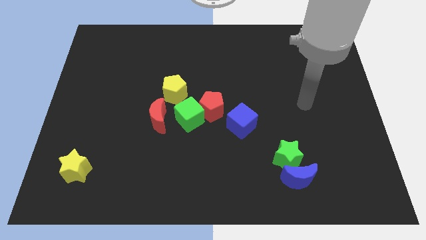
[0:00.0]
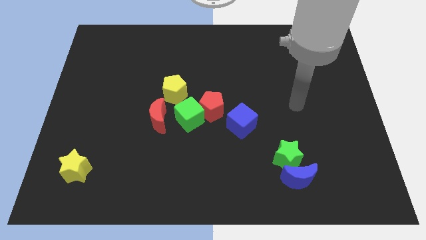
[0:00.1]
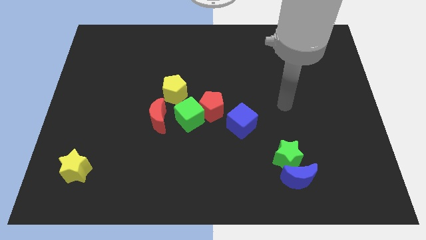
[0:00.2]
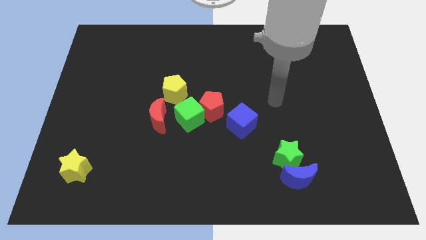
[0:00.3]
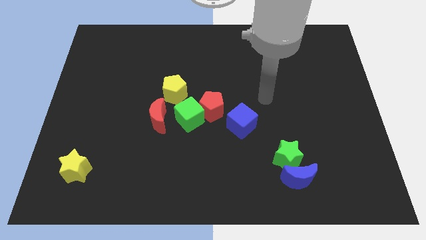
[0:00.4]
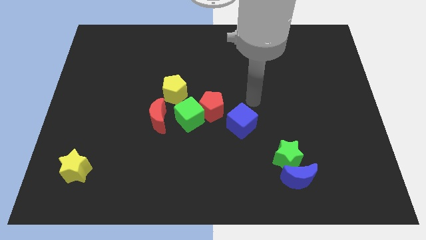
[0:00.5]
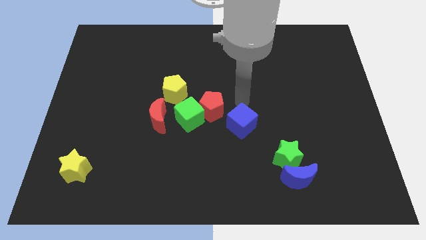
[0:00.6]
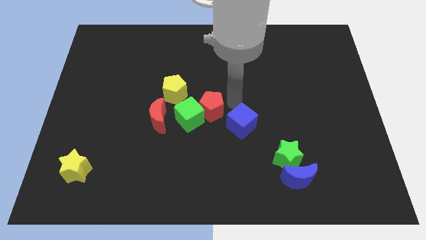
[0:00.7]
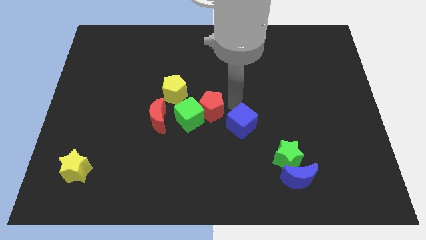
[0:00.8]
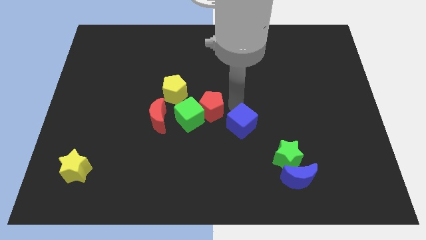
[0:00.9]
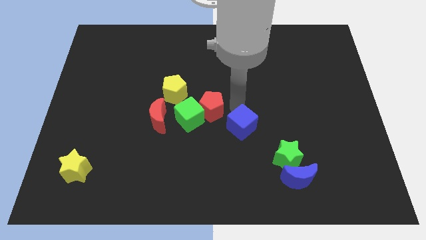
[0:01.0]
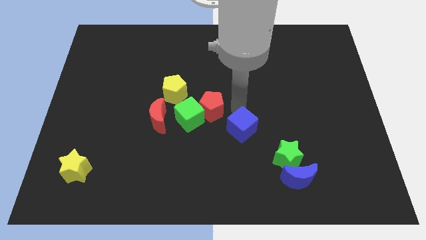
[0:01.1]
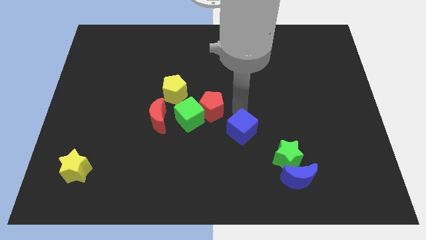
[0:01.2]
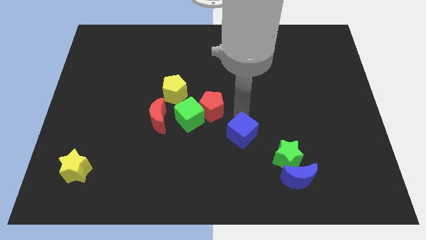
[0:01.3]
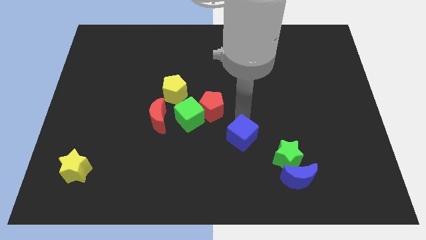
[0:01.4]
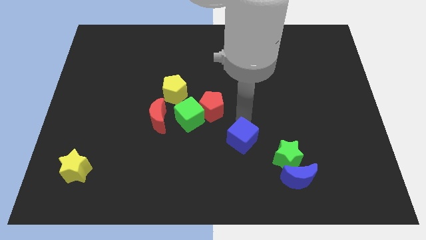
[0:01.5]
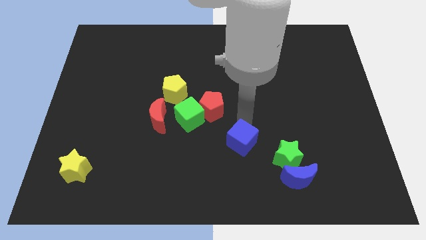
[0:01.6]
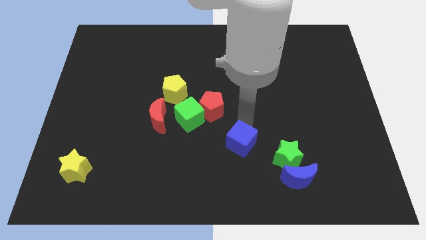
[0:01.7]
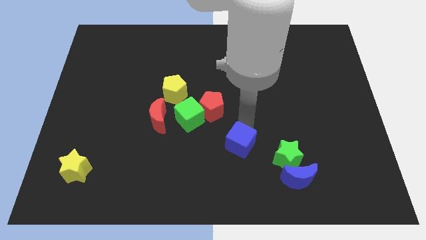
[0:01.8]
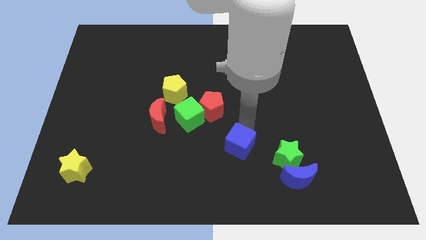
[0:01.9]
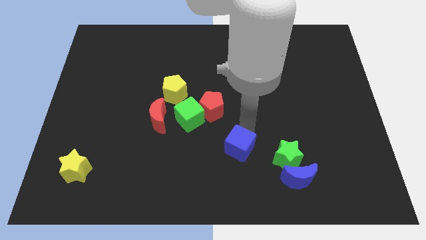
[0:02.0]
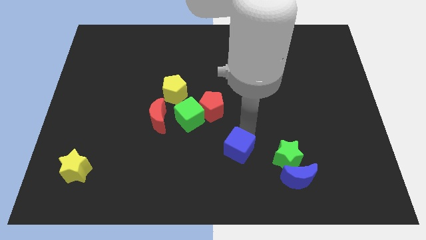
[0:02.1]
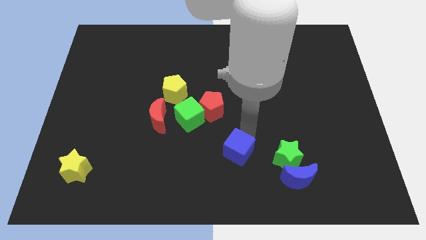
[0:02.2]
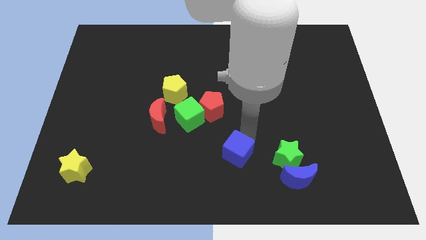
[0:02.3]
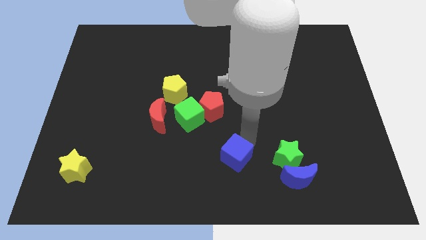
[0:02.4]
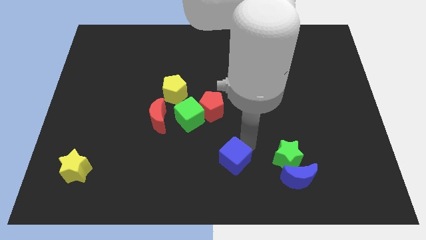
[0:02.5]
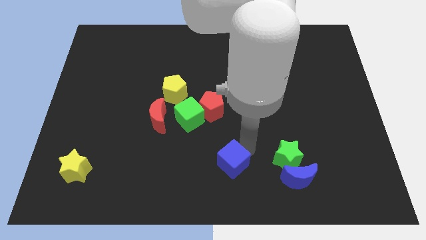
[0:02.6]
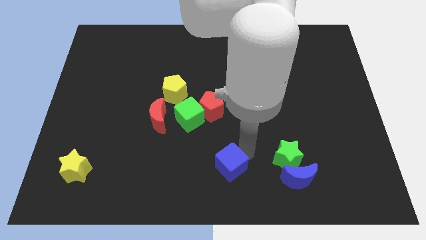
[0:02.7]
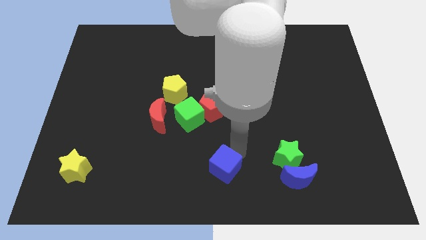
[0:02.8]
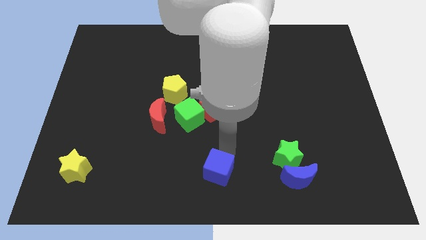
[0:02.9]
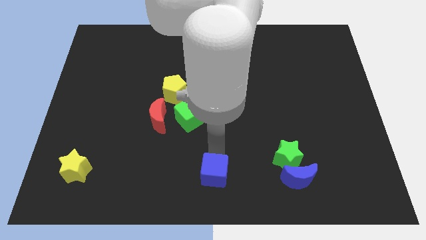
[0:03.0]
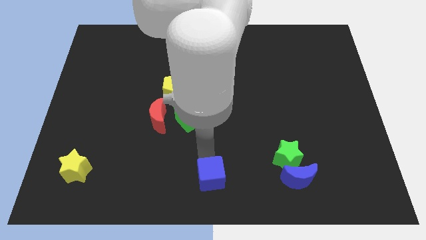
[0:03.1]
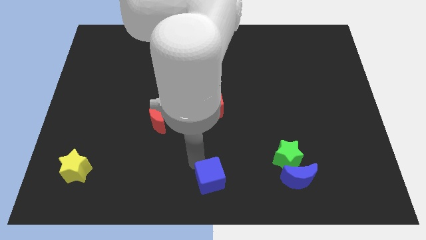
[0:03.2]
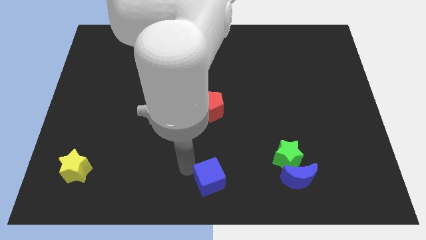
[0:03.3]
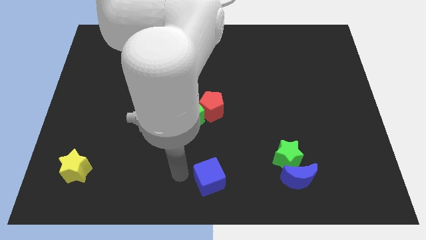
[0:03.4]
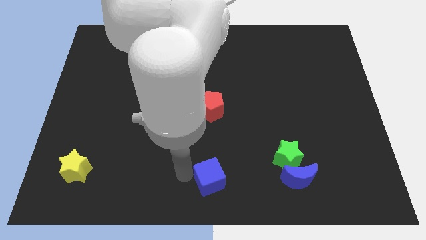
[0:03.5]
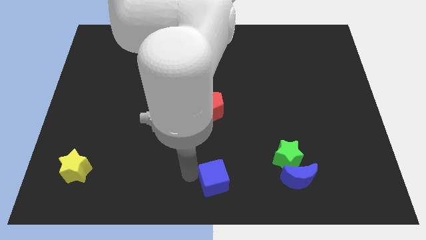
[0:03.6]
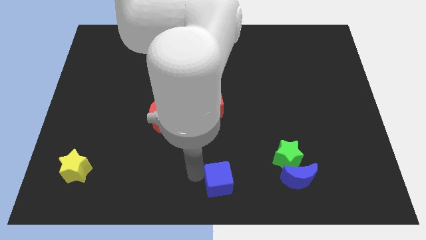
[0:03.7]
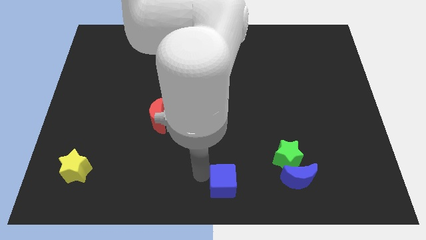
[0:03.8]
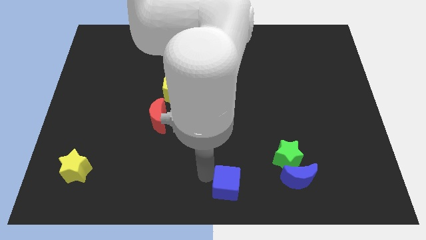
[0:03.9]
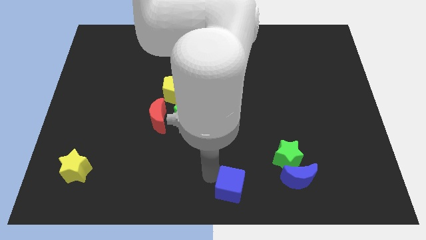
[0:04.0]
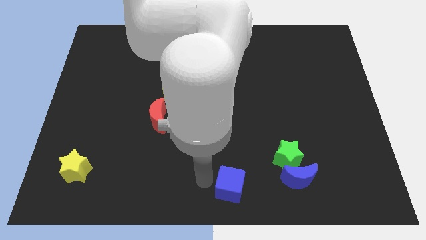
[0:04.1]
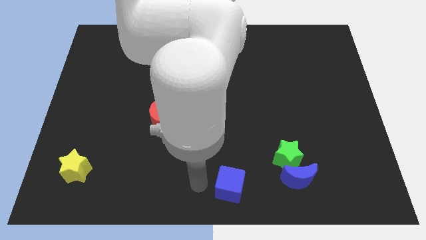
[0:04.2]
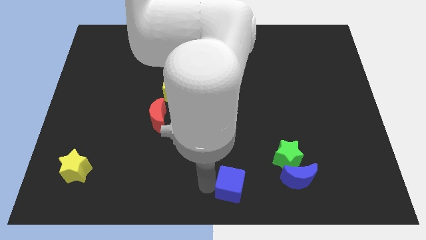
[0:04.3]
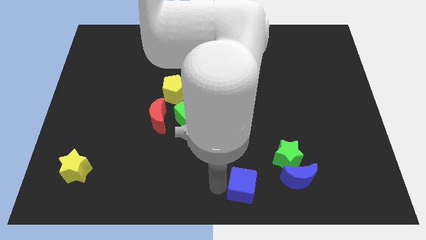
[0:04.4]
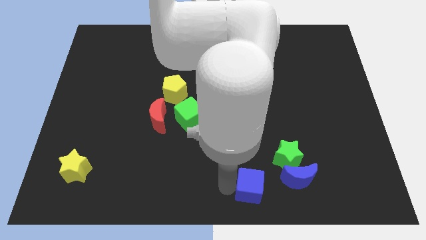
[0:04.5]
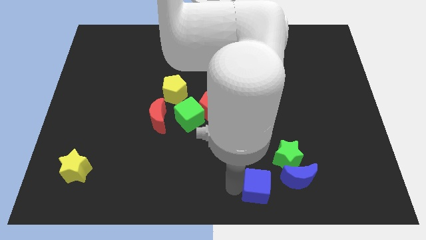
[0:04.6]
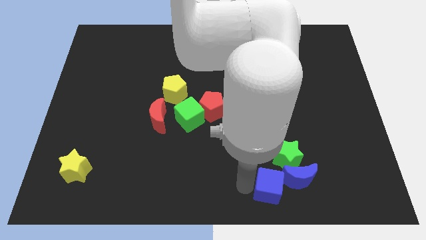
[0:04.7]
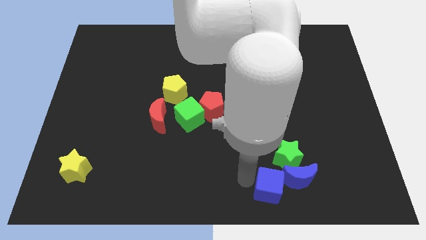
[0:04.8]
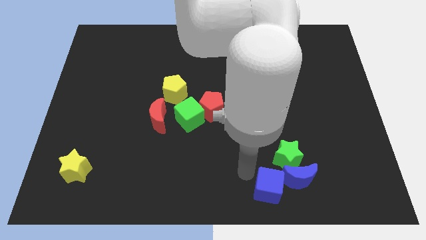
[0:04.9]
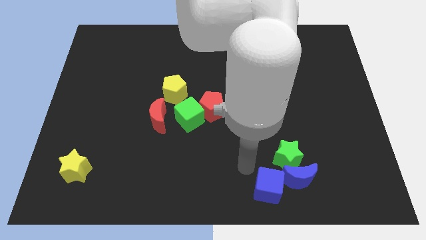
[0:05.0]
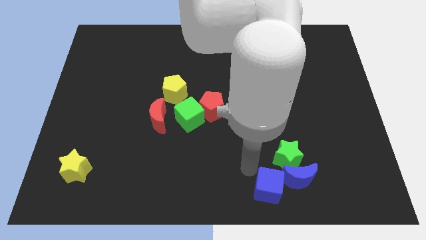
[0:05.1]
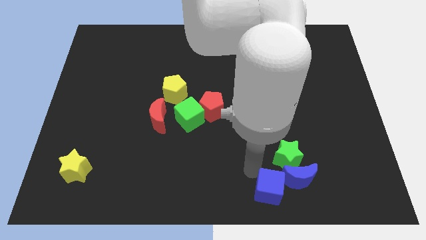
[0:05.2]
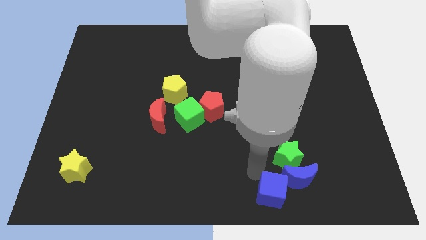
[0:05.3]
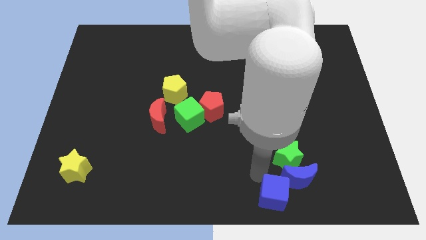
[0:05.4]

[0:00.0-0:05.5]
slide the blue cube to the blue moon

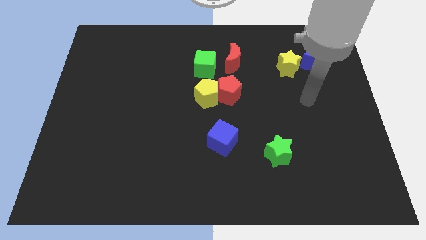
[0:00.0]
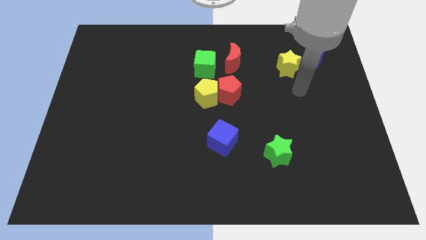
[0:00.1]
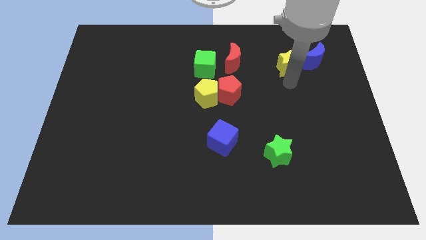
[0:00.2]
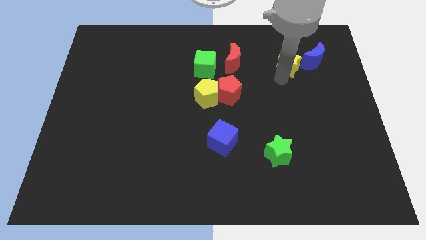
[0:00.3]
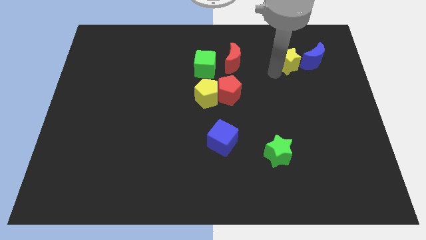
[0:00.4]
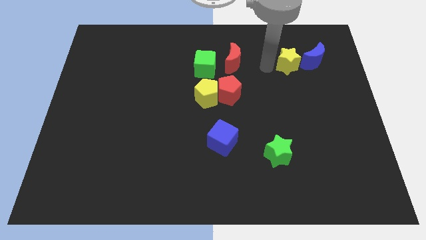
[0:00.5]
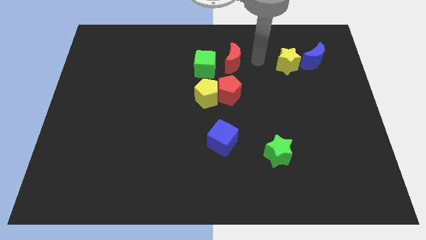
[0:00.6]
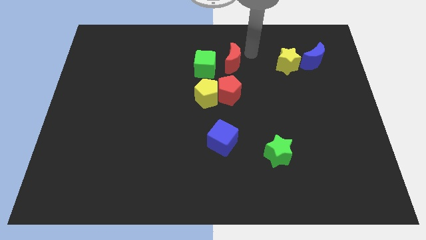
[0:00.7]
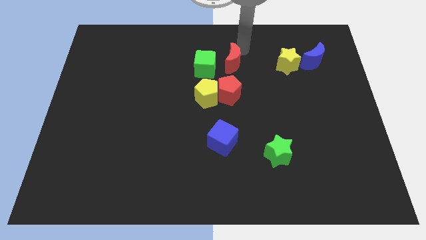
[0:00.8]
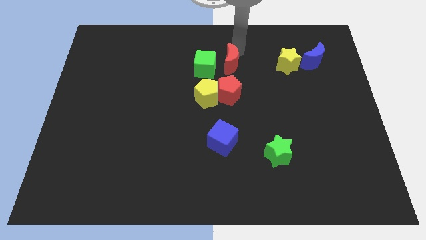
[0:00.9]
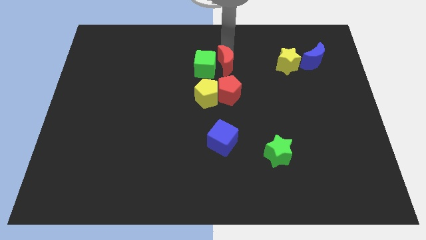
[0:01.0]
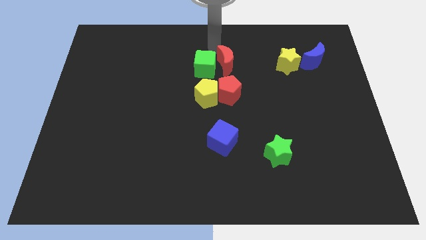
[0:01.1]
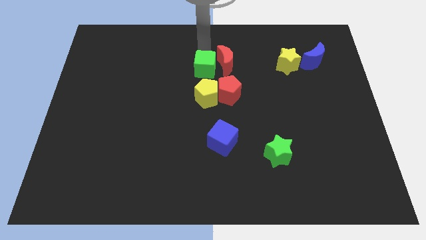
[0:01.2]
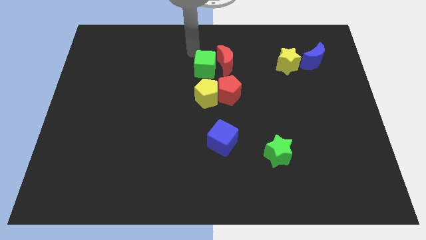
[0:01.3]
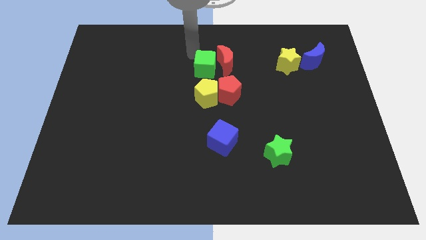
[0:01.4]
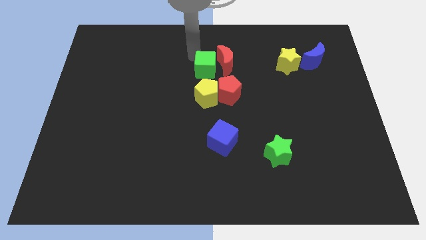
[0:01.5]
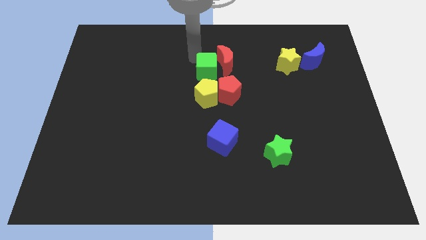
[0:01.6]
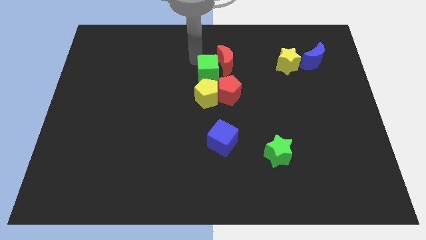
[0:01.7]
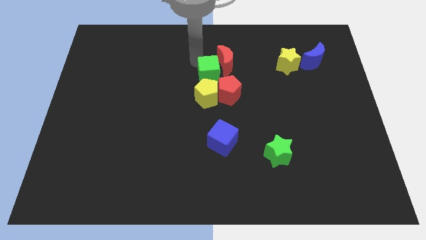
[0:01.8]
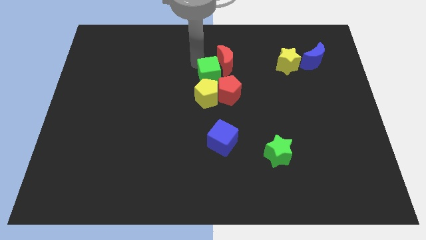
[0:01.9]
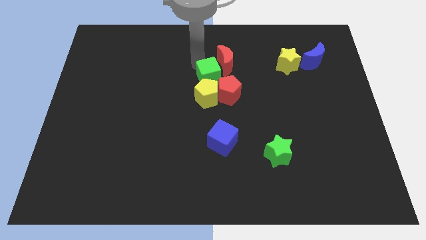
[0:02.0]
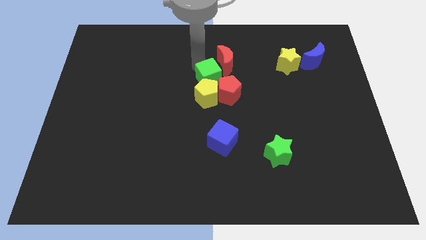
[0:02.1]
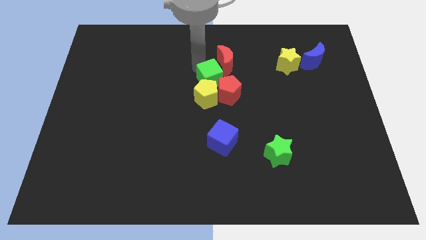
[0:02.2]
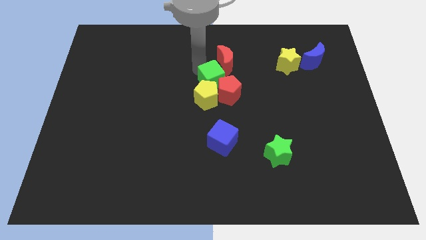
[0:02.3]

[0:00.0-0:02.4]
put the green cube to the red pentagon
